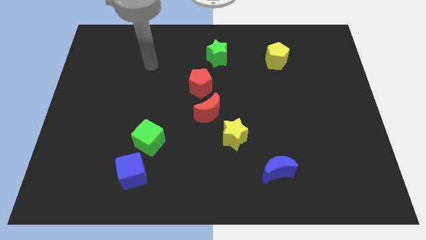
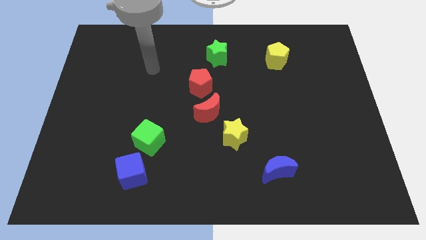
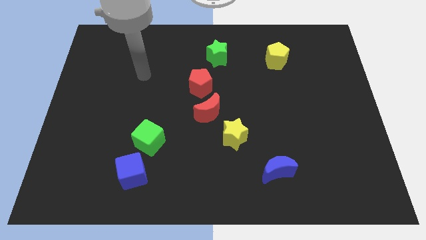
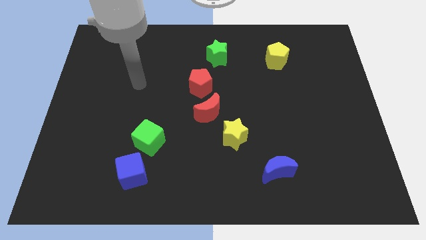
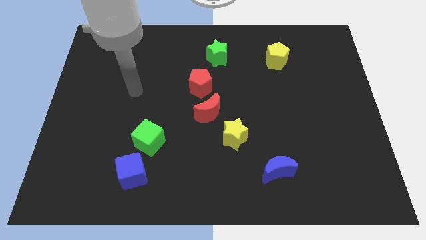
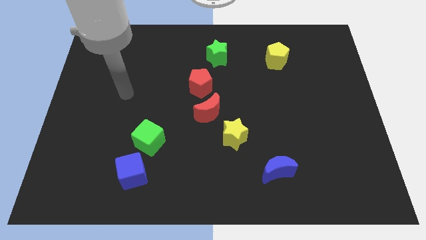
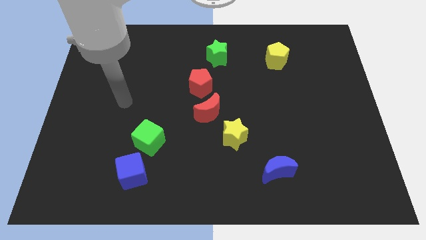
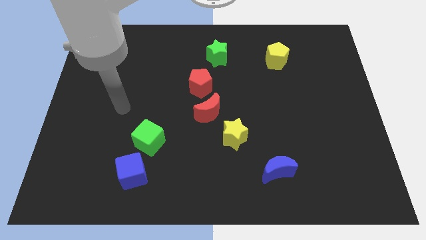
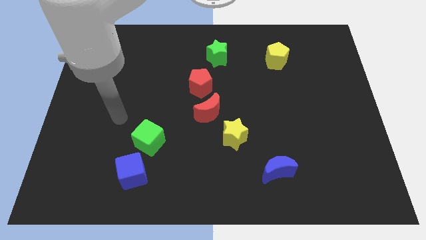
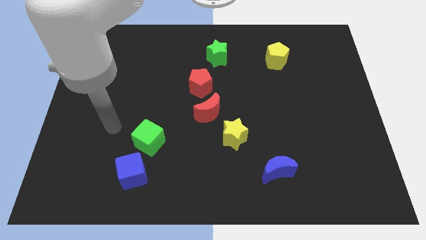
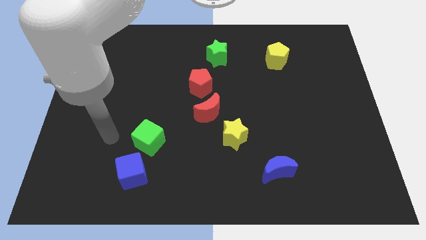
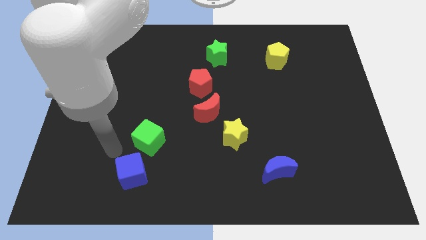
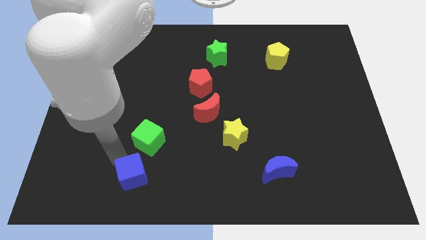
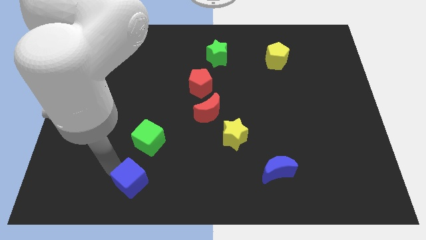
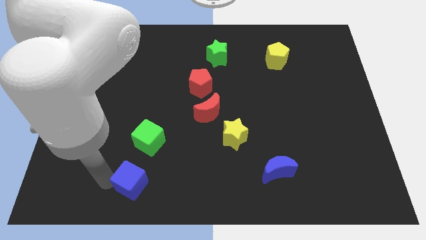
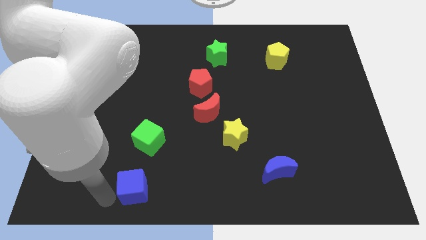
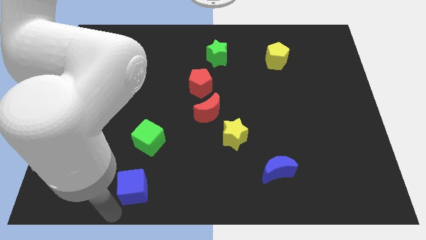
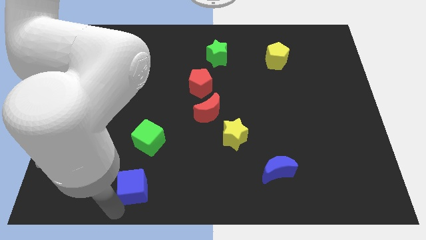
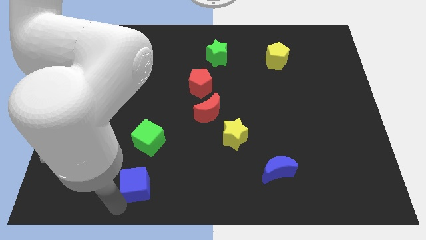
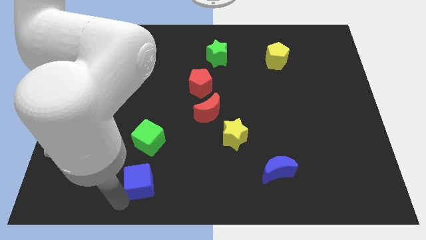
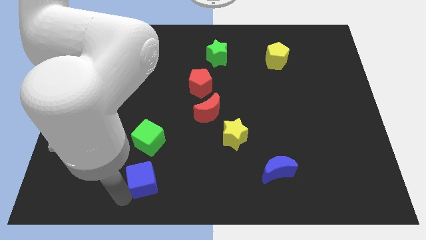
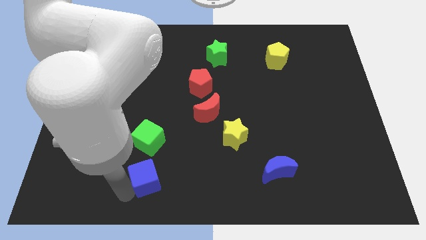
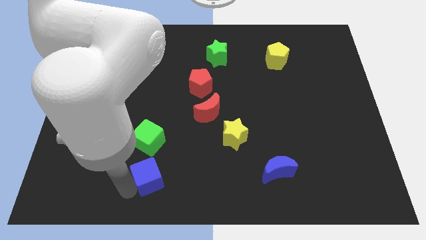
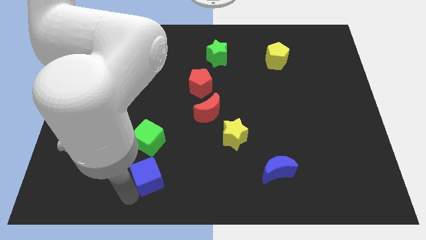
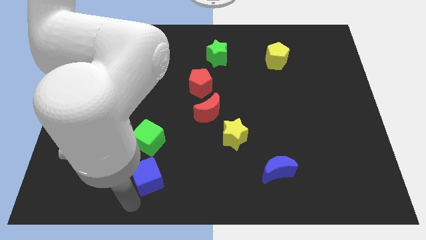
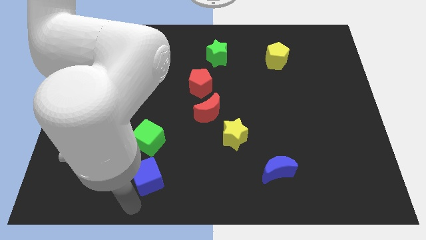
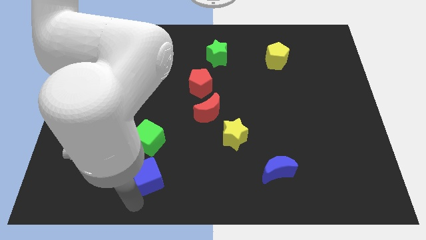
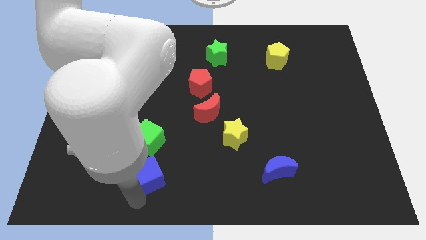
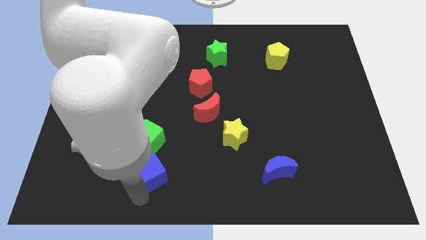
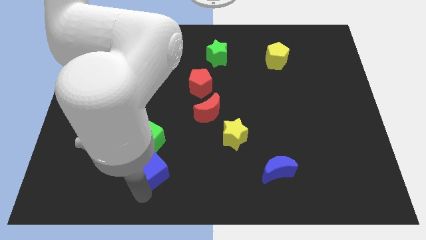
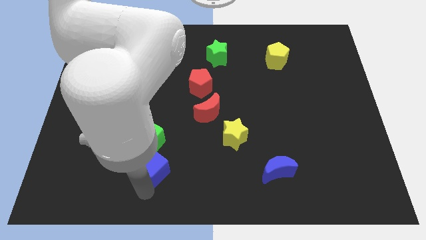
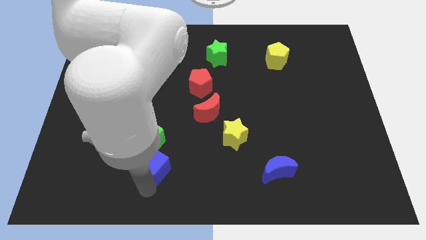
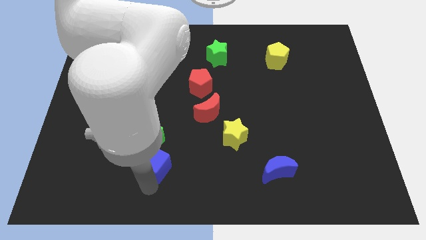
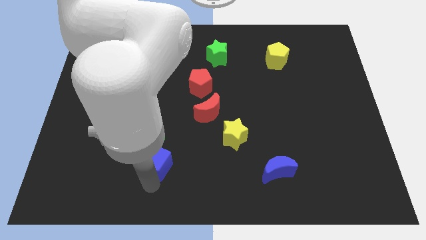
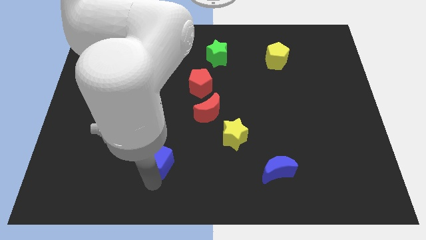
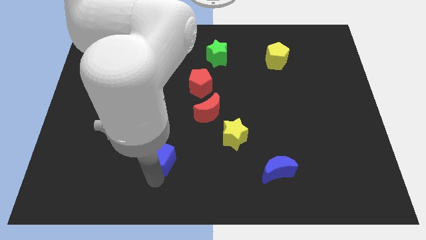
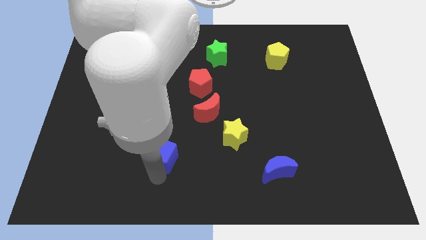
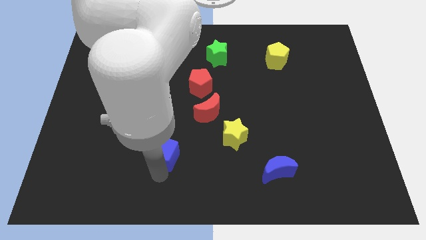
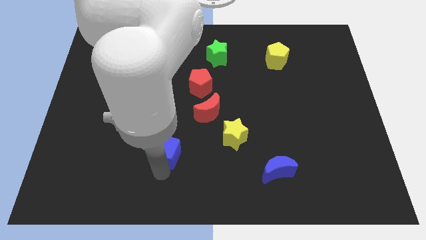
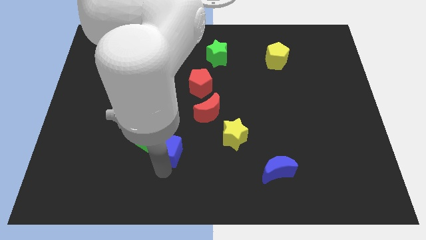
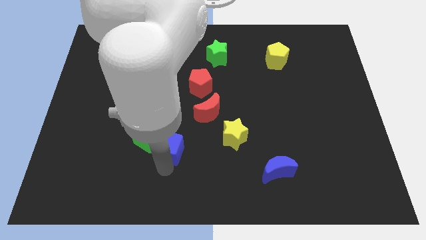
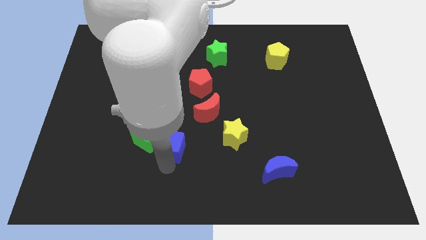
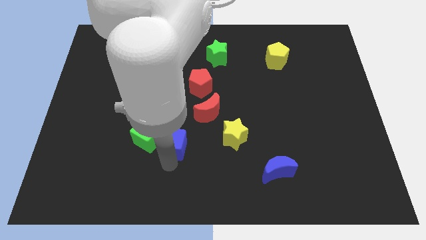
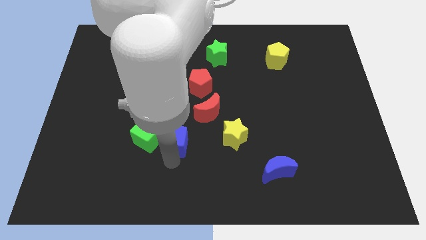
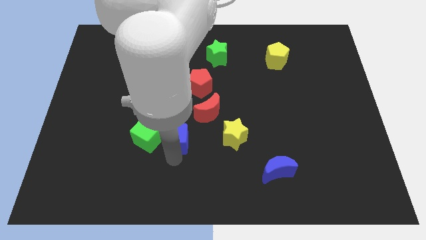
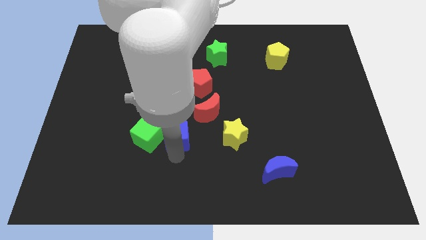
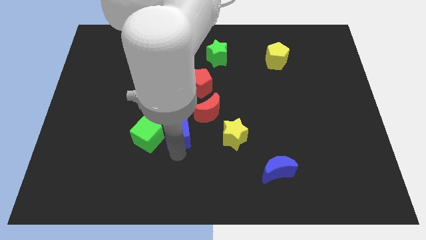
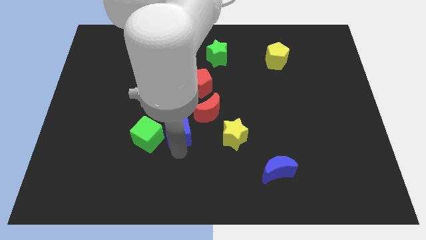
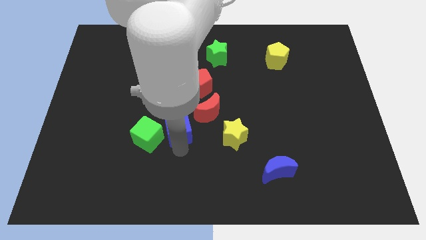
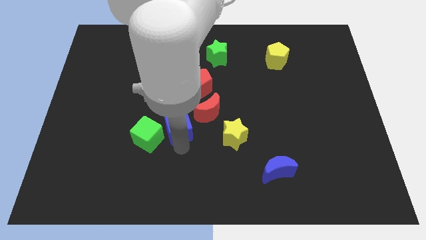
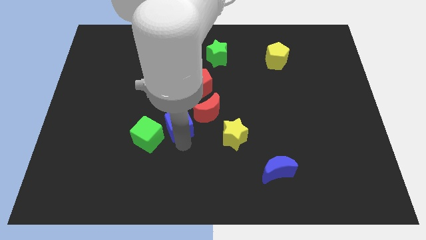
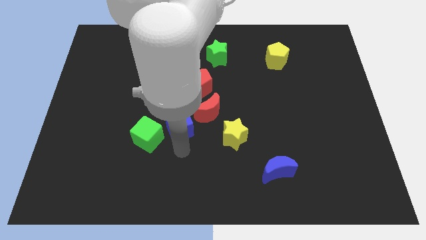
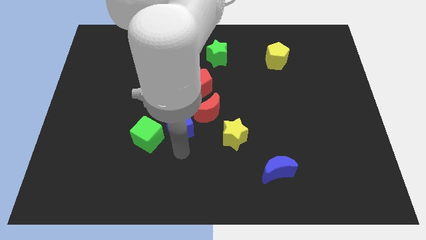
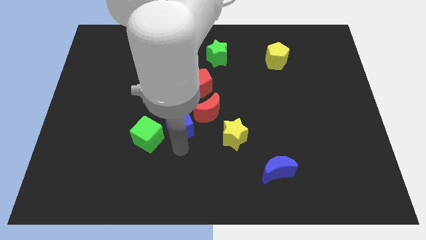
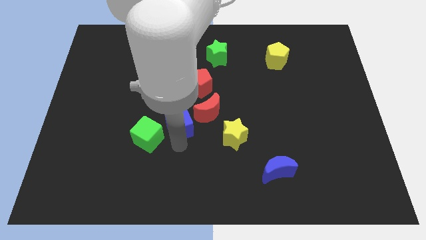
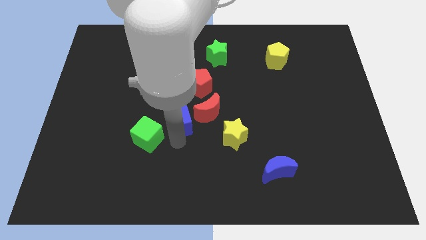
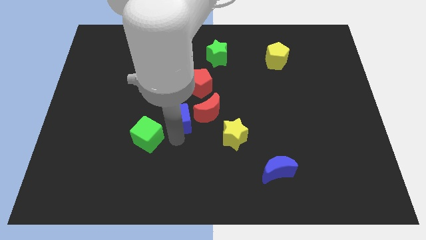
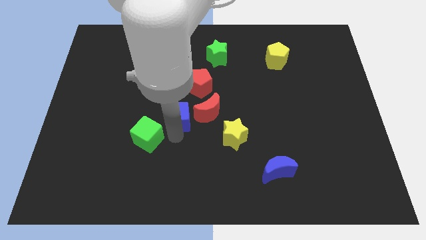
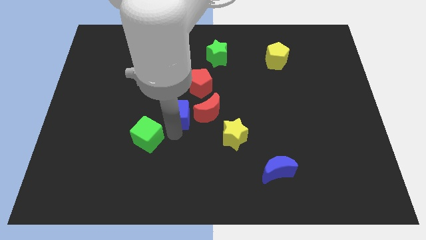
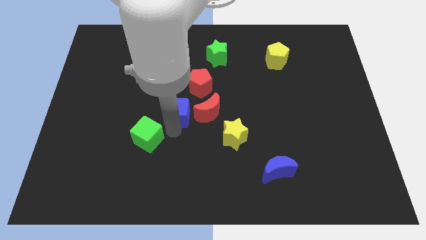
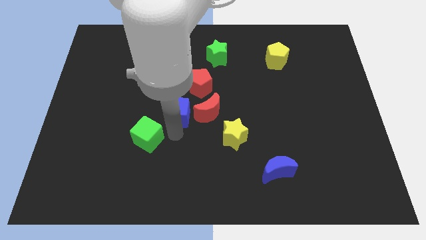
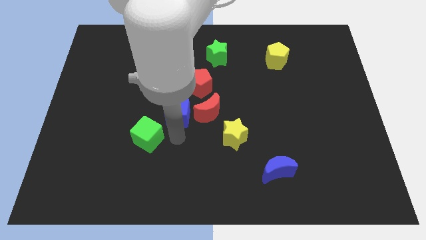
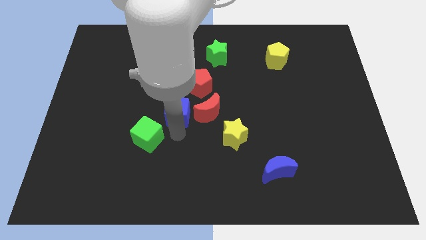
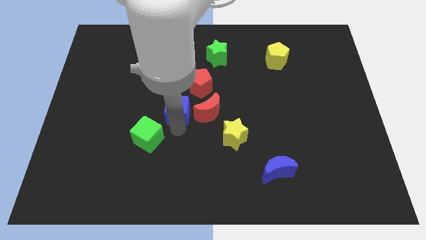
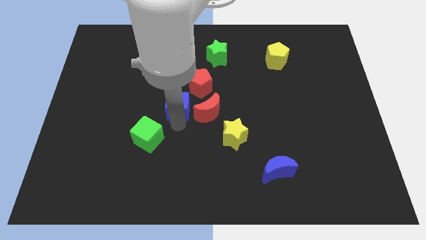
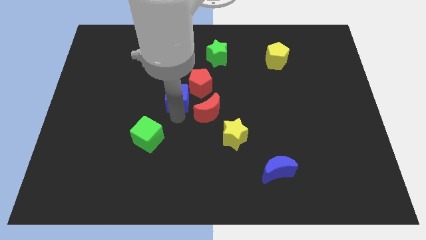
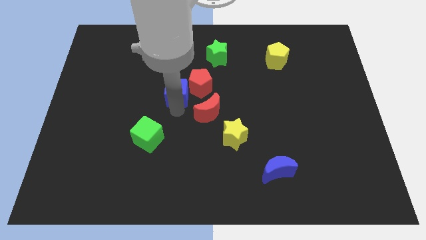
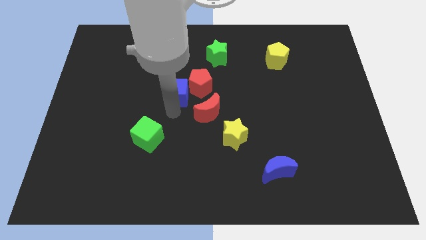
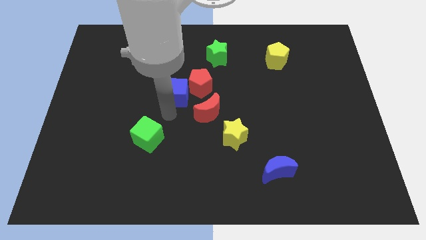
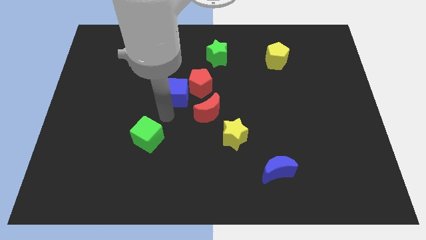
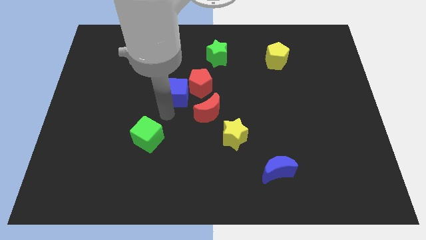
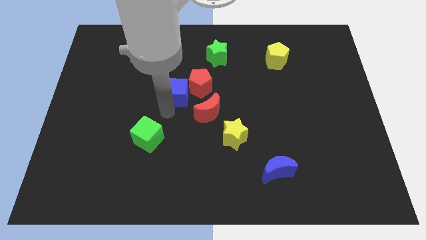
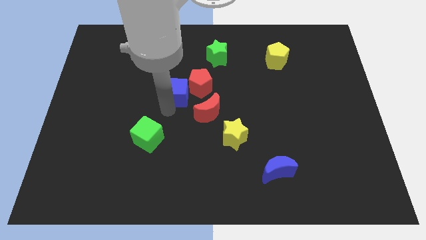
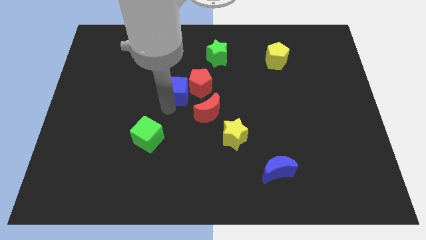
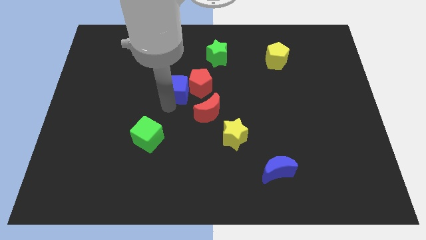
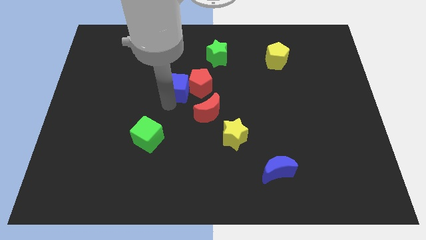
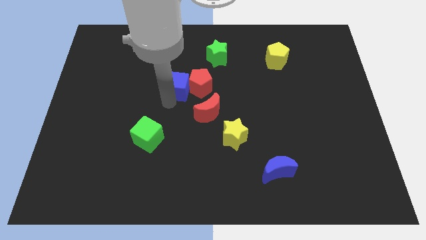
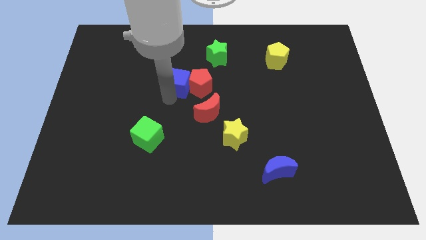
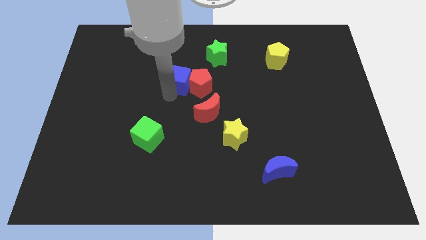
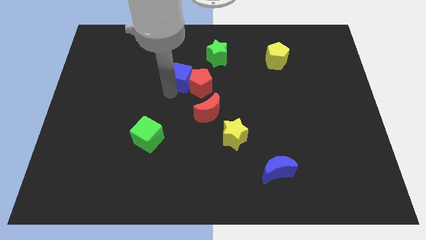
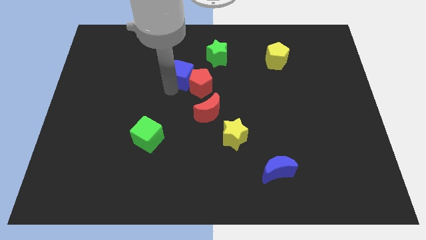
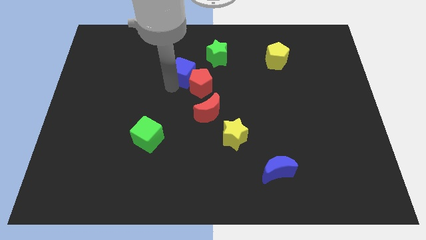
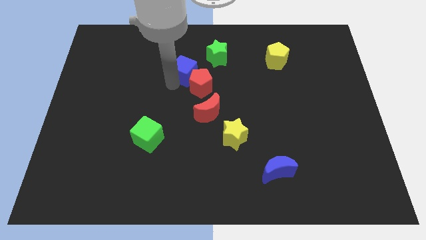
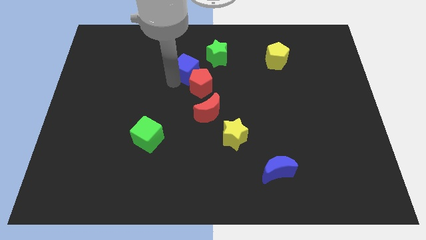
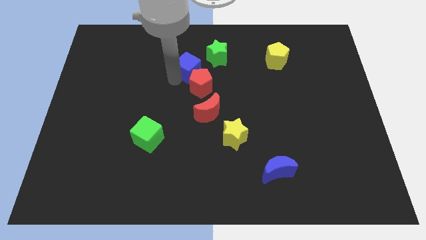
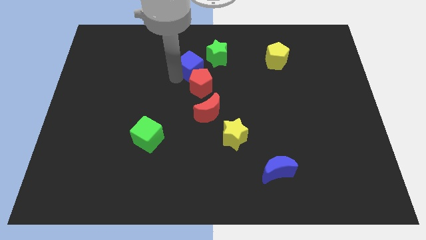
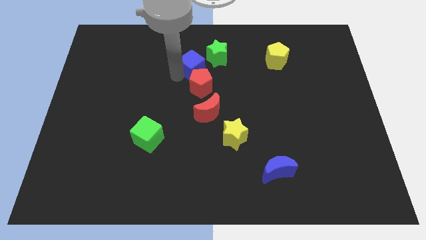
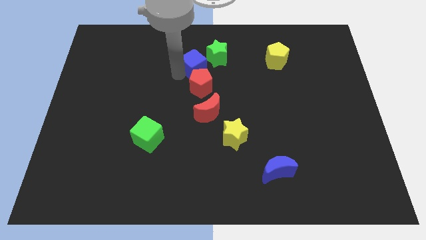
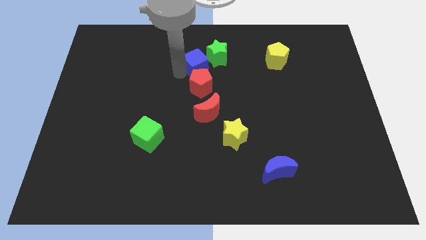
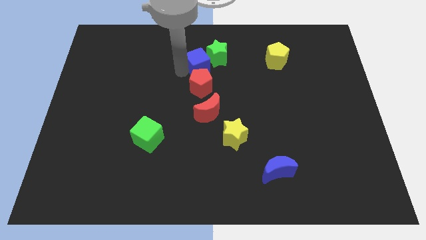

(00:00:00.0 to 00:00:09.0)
move the blue cube towards the green star
